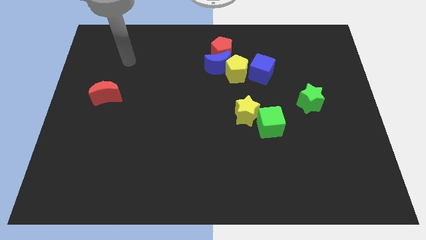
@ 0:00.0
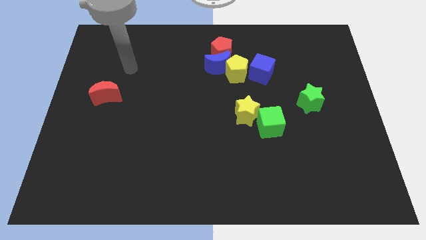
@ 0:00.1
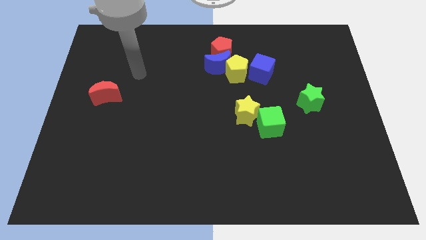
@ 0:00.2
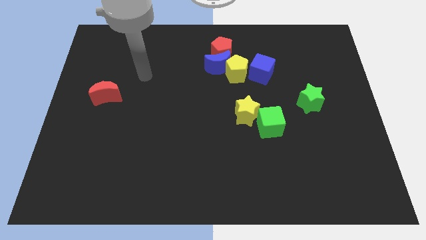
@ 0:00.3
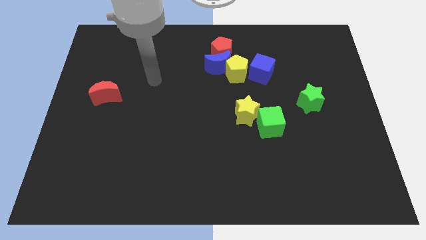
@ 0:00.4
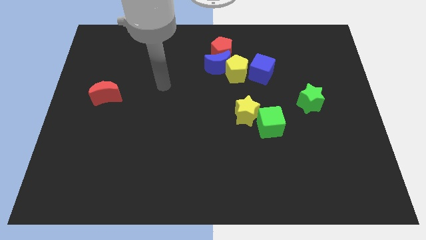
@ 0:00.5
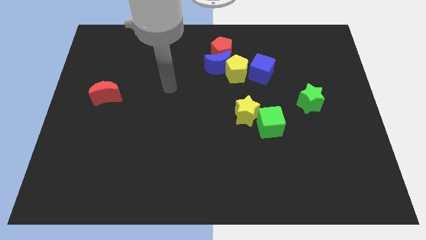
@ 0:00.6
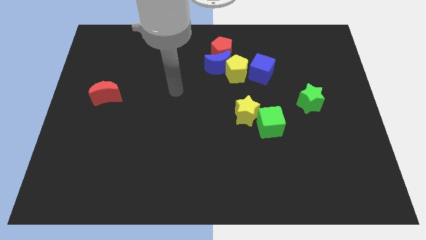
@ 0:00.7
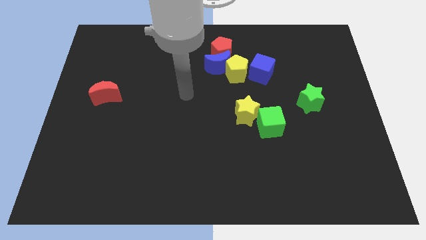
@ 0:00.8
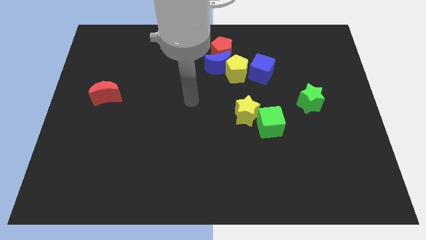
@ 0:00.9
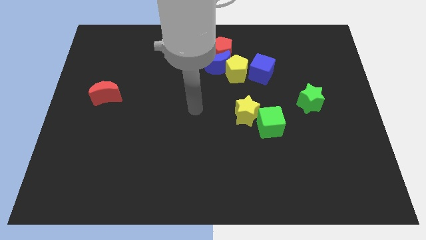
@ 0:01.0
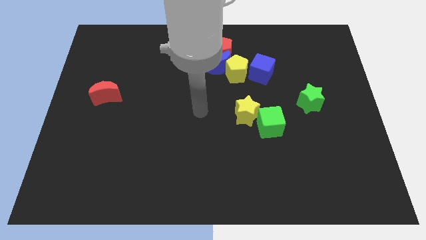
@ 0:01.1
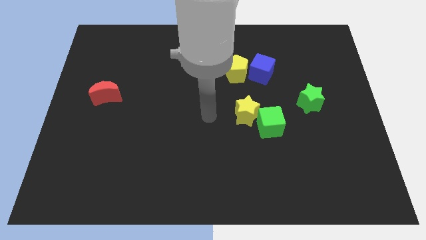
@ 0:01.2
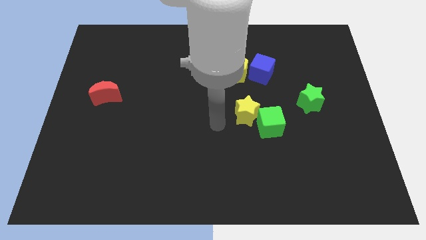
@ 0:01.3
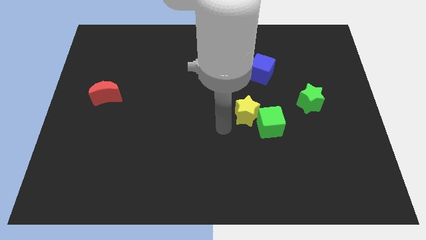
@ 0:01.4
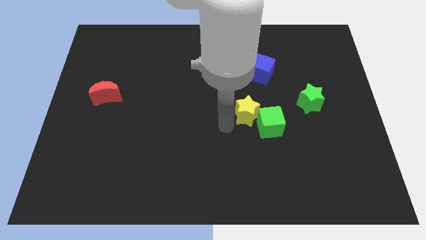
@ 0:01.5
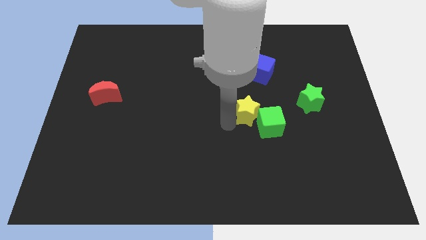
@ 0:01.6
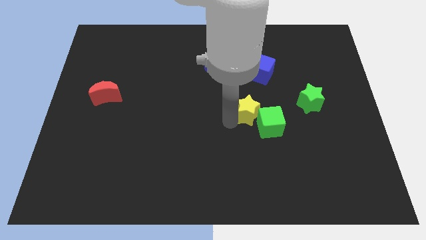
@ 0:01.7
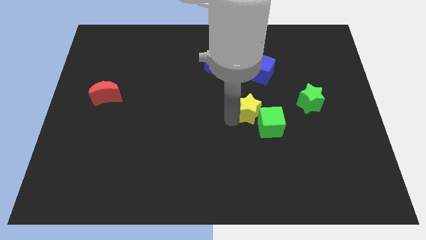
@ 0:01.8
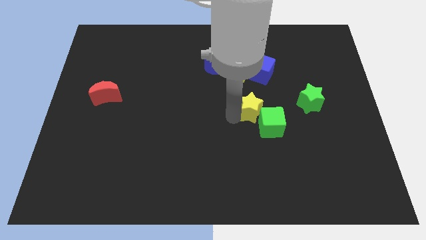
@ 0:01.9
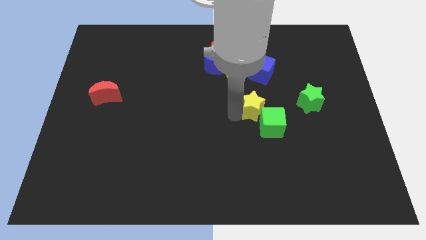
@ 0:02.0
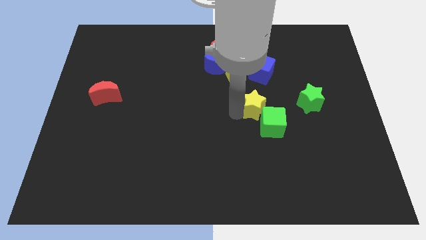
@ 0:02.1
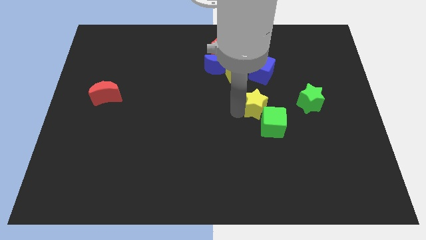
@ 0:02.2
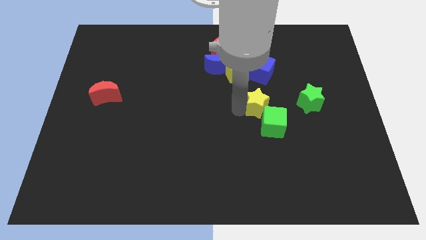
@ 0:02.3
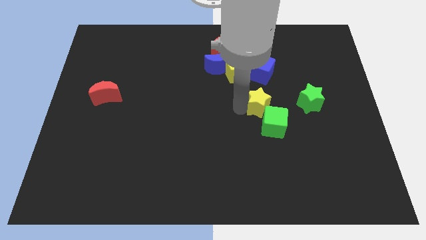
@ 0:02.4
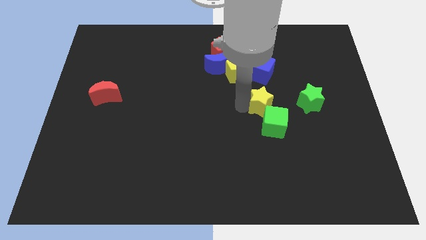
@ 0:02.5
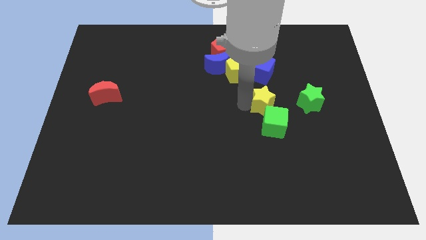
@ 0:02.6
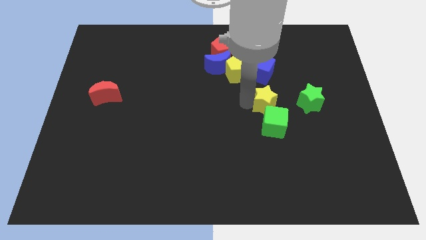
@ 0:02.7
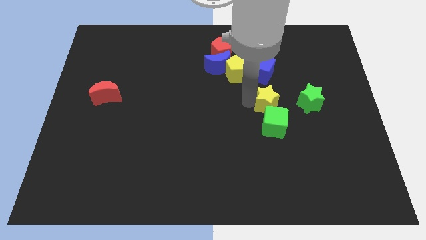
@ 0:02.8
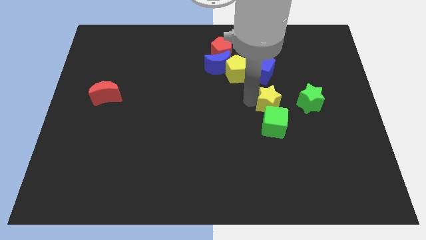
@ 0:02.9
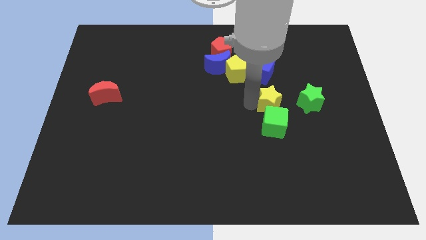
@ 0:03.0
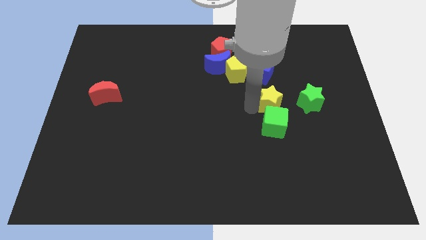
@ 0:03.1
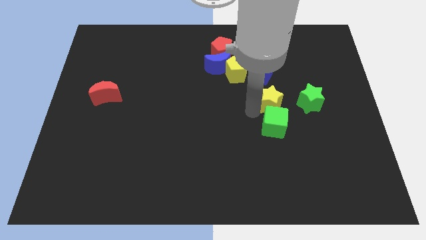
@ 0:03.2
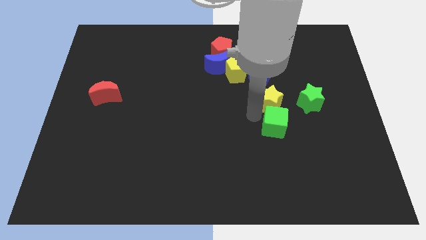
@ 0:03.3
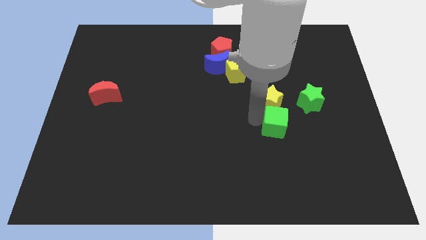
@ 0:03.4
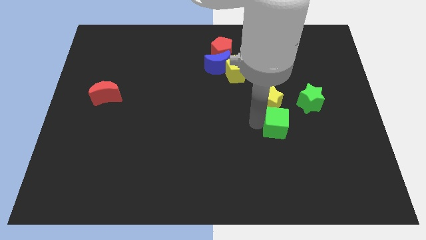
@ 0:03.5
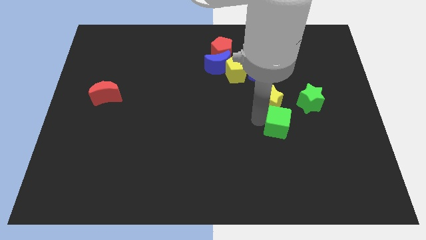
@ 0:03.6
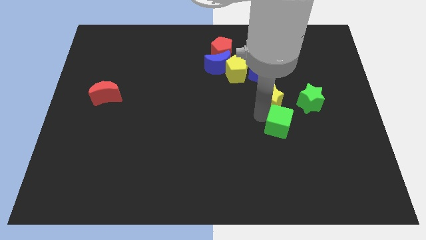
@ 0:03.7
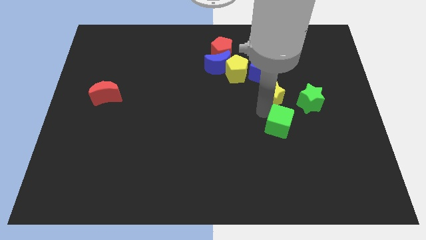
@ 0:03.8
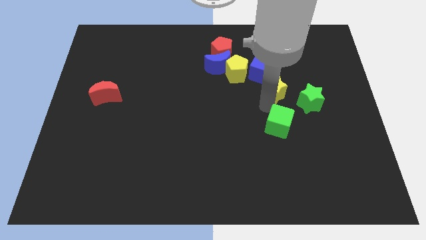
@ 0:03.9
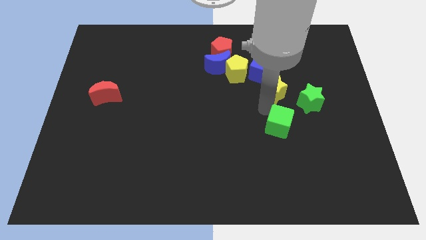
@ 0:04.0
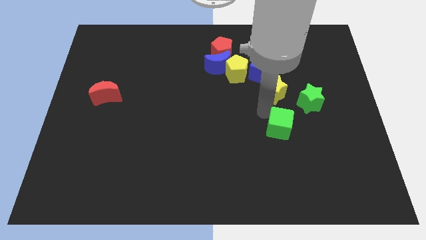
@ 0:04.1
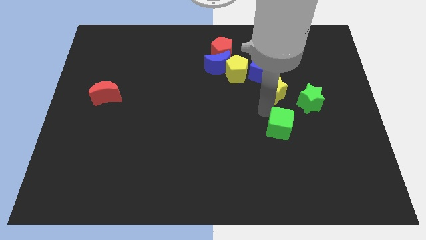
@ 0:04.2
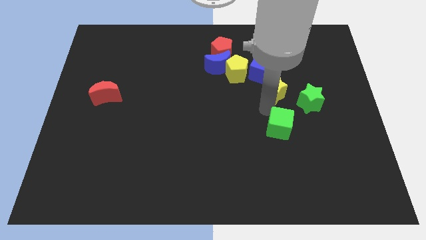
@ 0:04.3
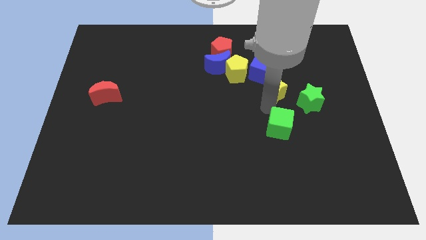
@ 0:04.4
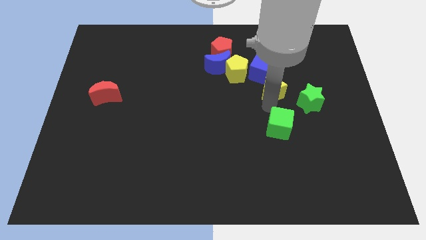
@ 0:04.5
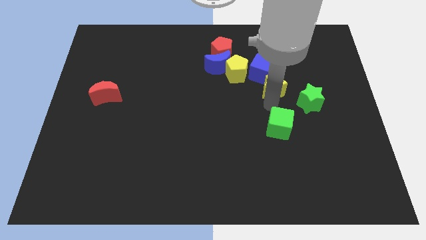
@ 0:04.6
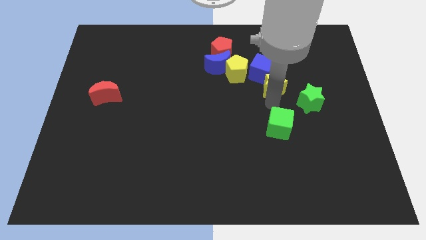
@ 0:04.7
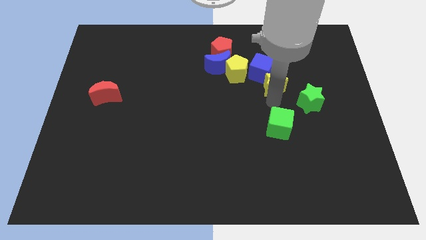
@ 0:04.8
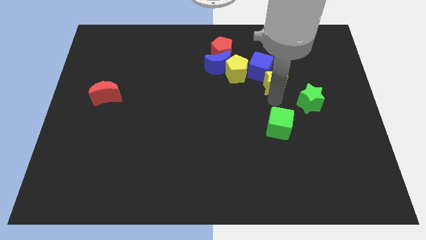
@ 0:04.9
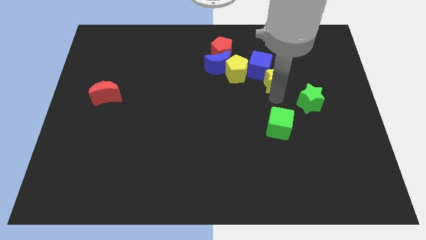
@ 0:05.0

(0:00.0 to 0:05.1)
push the yellow star a little bit upwards

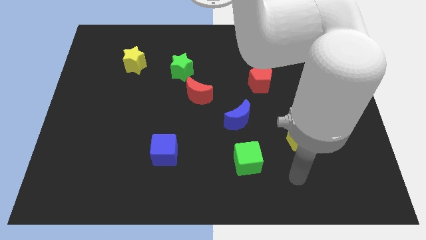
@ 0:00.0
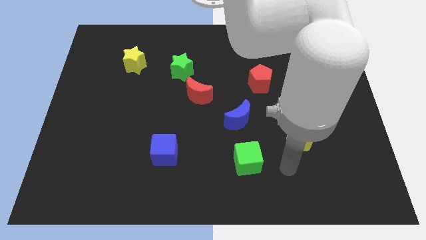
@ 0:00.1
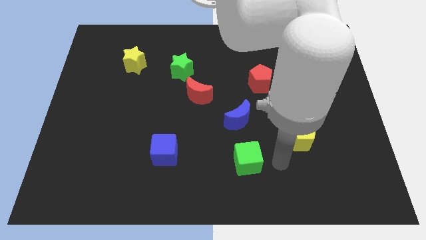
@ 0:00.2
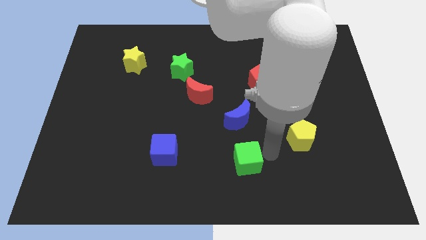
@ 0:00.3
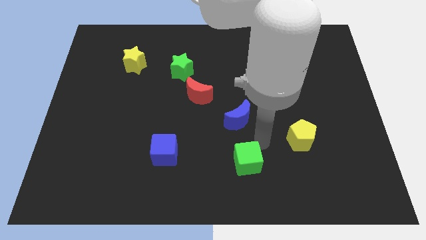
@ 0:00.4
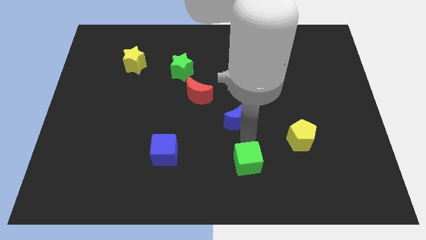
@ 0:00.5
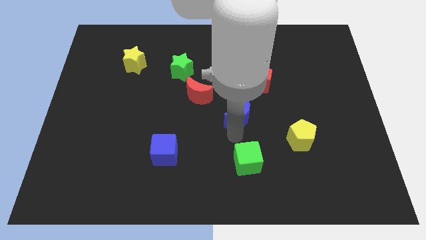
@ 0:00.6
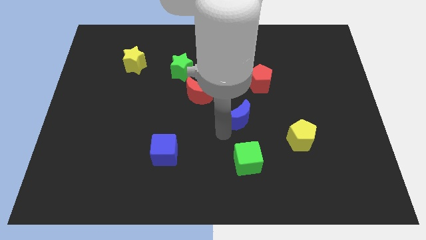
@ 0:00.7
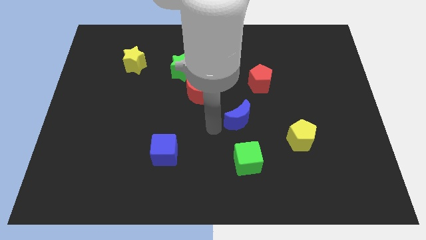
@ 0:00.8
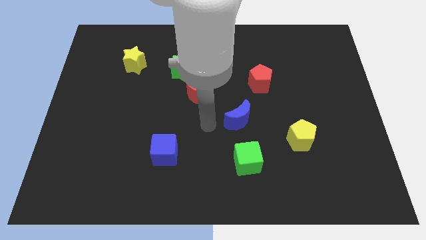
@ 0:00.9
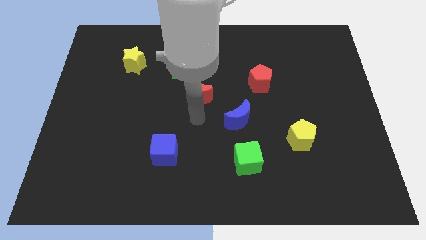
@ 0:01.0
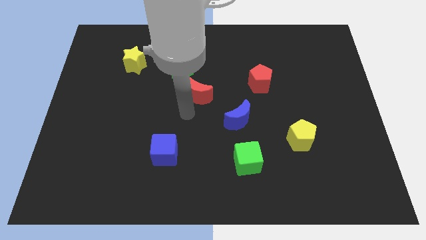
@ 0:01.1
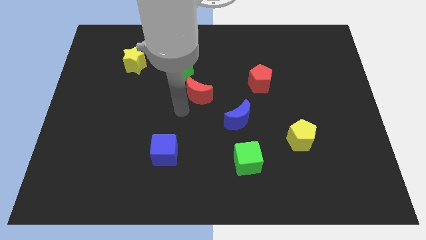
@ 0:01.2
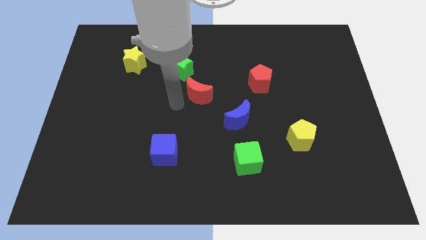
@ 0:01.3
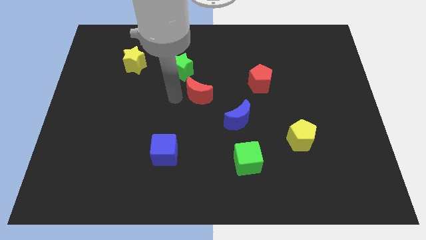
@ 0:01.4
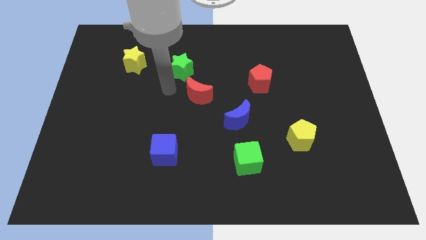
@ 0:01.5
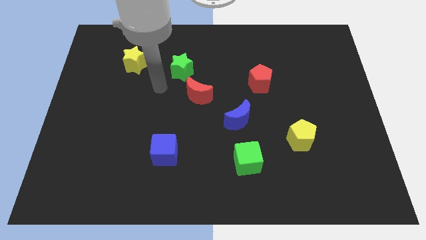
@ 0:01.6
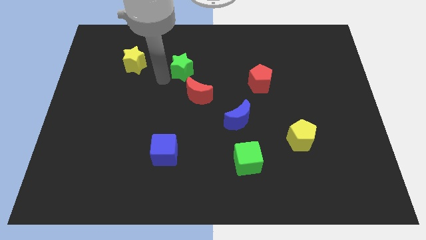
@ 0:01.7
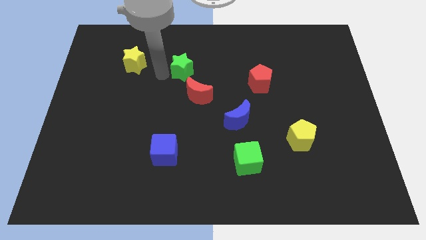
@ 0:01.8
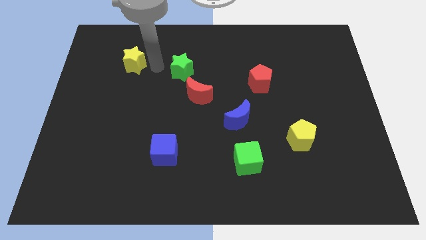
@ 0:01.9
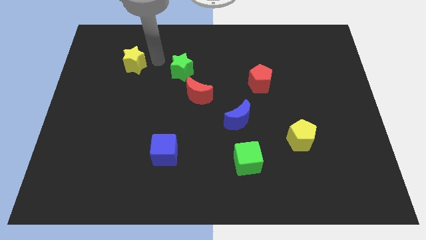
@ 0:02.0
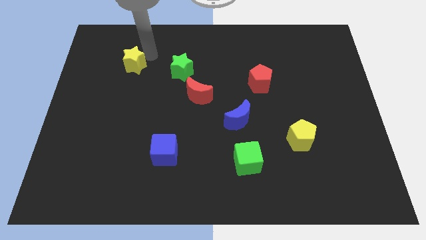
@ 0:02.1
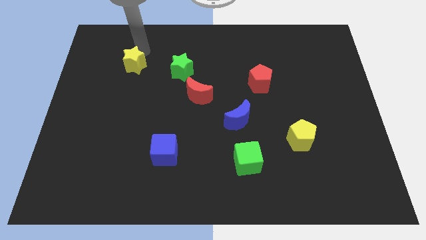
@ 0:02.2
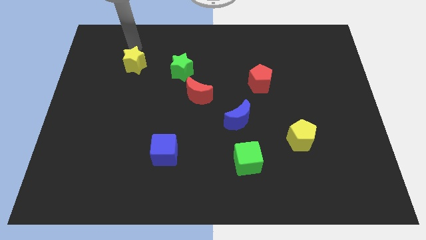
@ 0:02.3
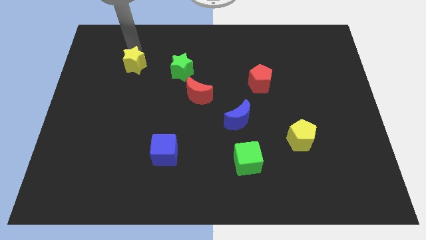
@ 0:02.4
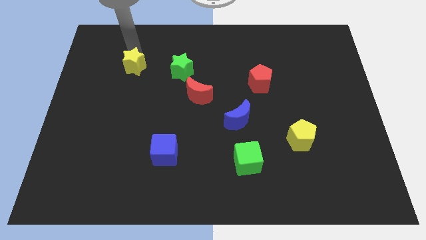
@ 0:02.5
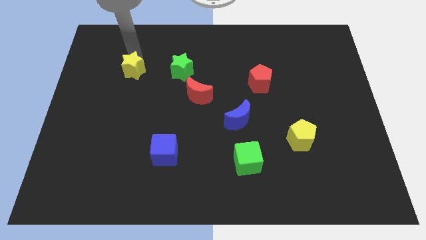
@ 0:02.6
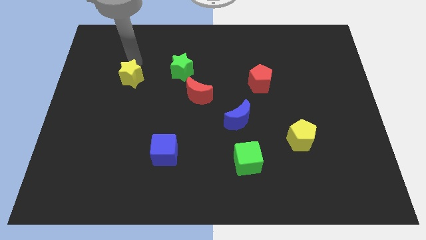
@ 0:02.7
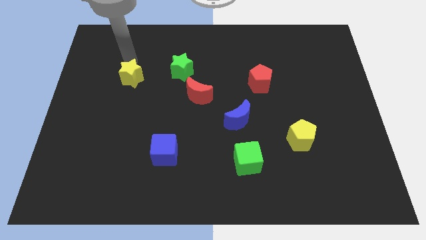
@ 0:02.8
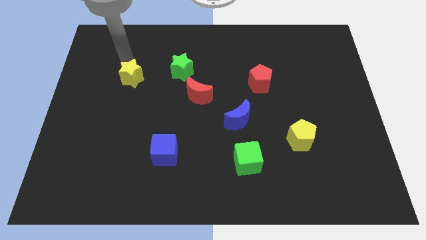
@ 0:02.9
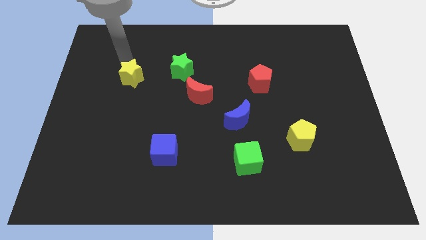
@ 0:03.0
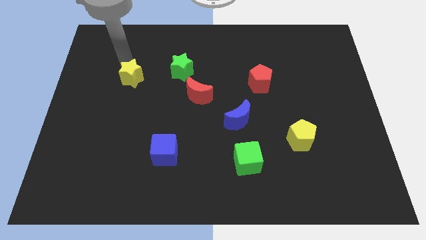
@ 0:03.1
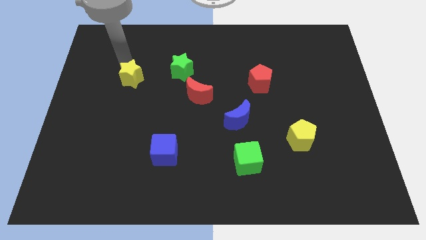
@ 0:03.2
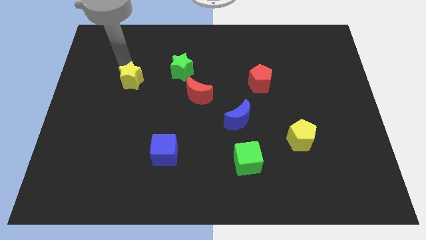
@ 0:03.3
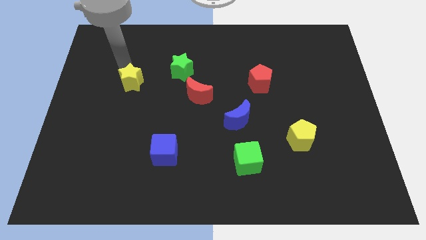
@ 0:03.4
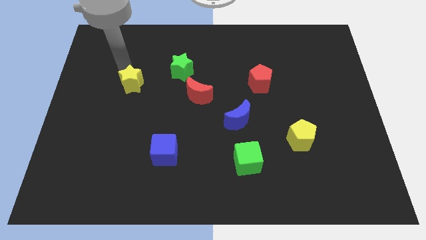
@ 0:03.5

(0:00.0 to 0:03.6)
move the yellow star down somewhat
